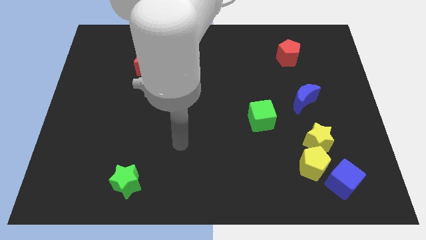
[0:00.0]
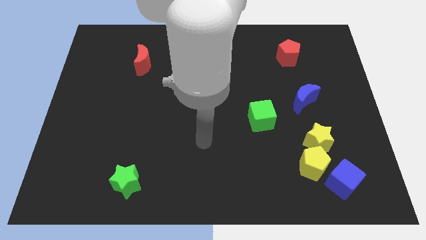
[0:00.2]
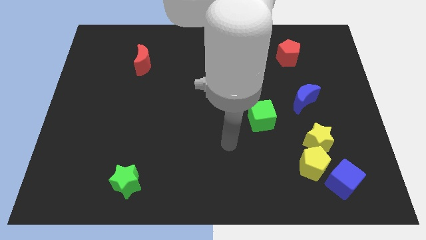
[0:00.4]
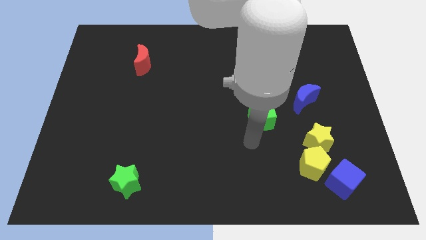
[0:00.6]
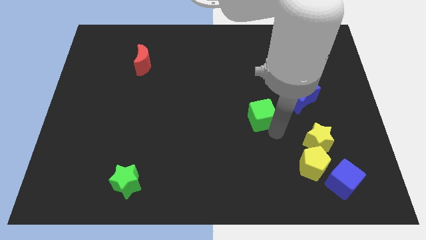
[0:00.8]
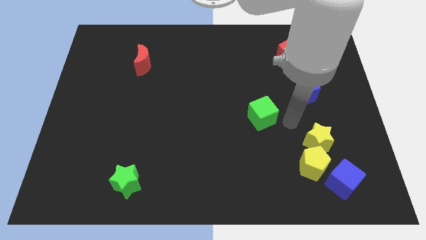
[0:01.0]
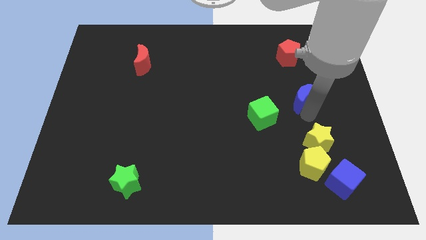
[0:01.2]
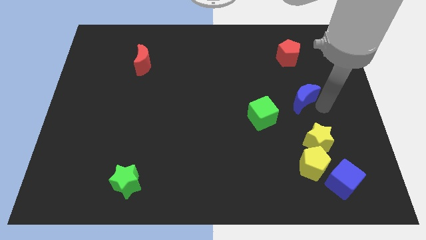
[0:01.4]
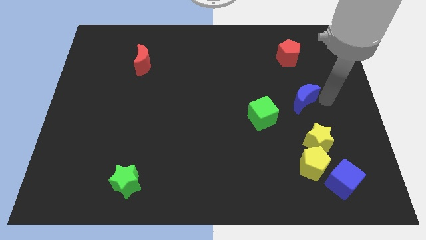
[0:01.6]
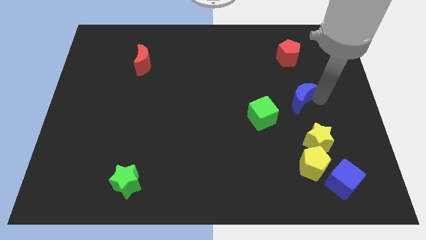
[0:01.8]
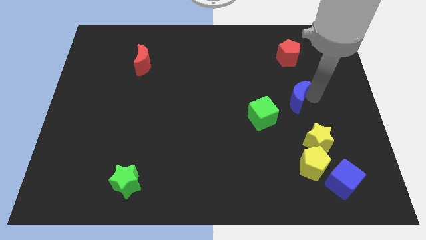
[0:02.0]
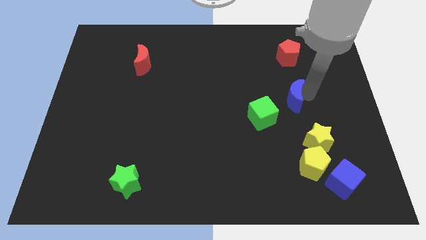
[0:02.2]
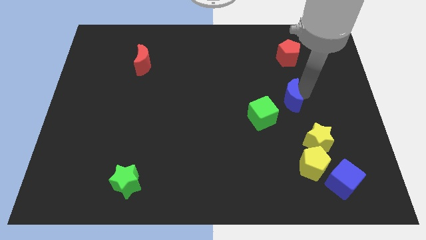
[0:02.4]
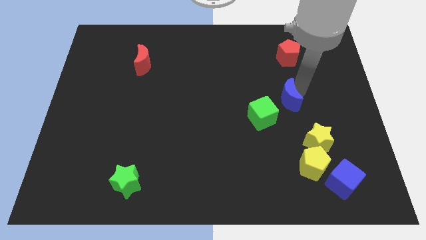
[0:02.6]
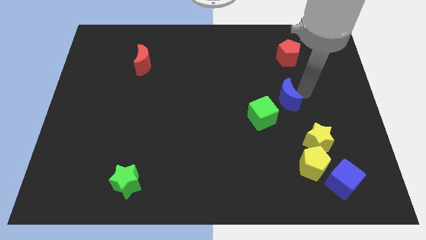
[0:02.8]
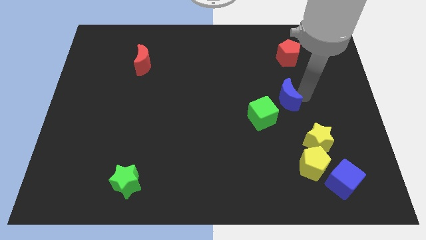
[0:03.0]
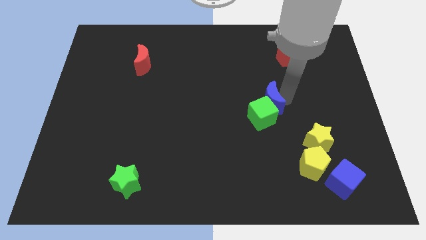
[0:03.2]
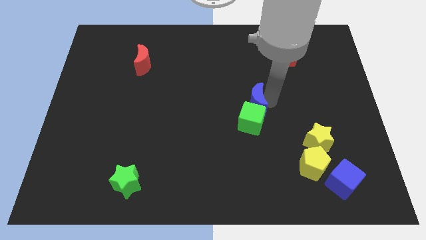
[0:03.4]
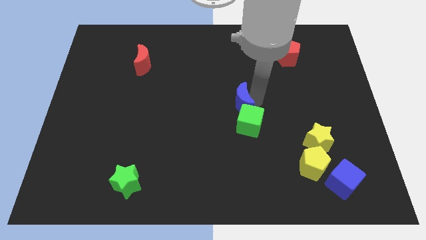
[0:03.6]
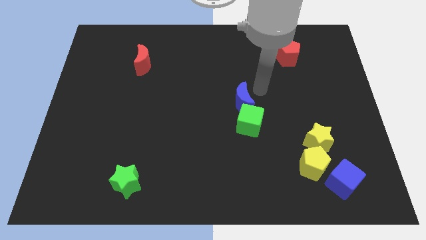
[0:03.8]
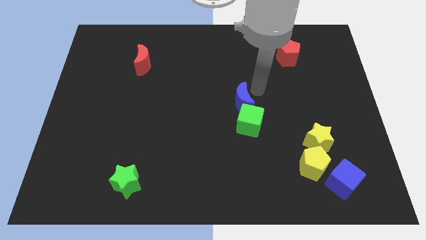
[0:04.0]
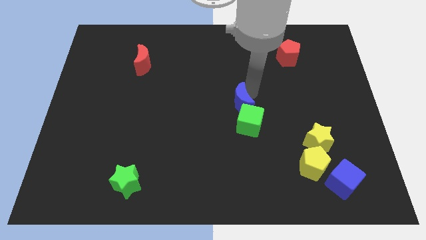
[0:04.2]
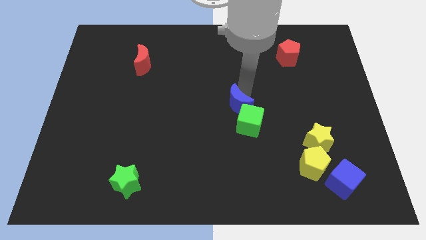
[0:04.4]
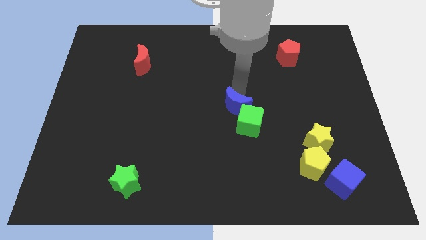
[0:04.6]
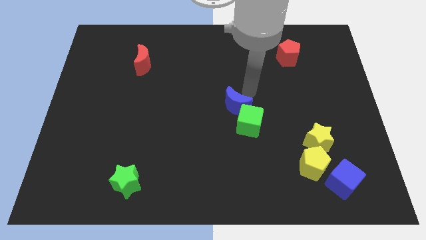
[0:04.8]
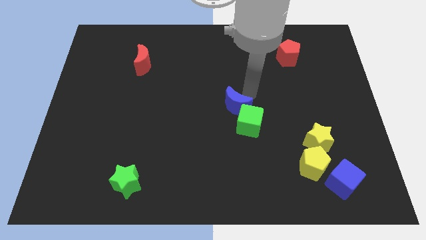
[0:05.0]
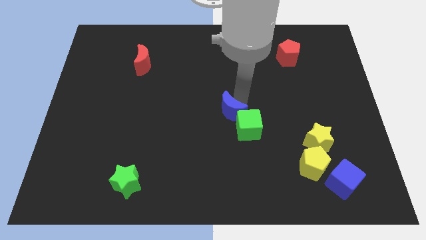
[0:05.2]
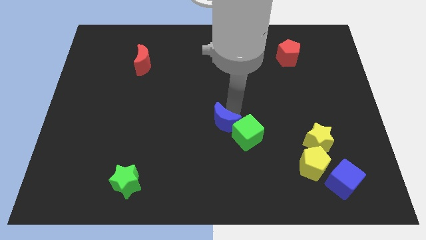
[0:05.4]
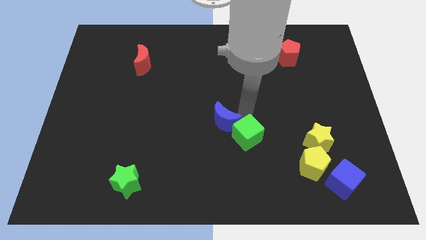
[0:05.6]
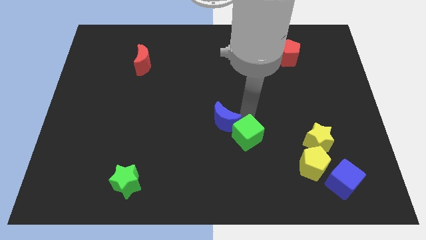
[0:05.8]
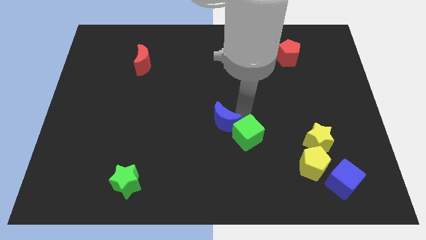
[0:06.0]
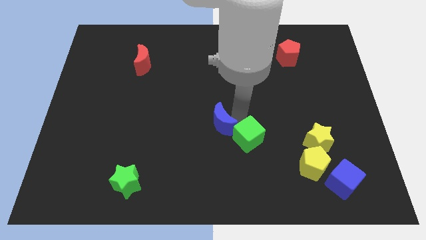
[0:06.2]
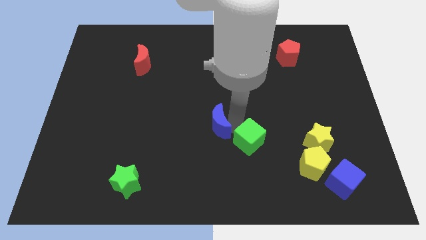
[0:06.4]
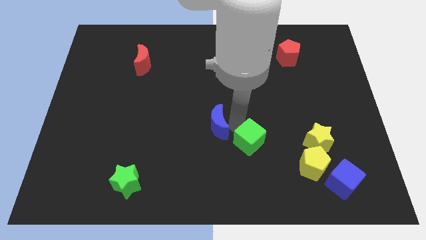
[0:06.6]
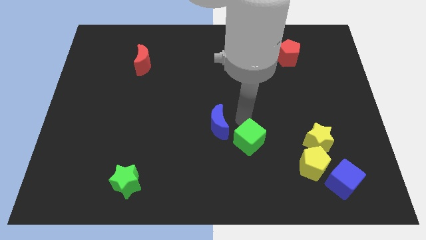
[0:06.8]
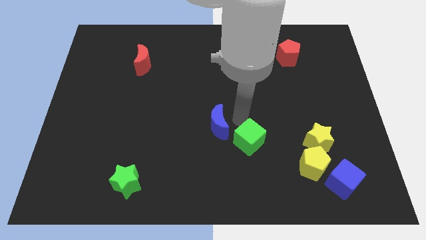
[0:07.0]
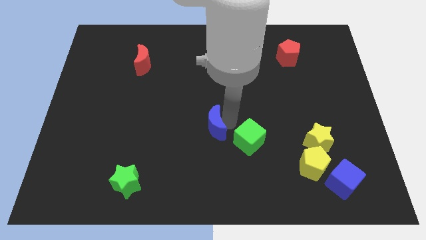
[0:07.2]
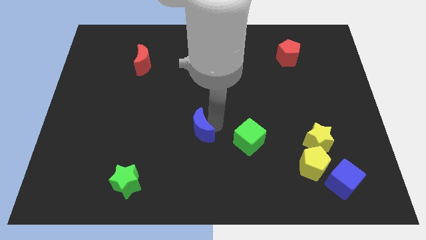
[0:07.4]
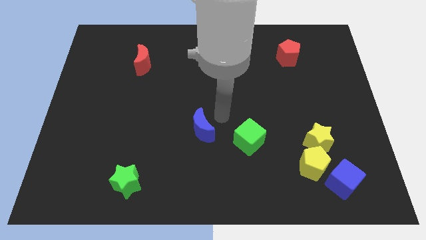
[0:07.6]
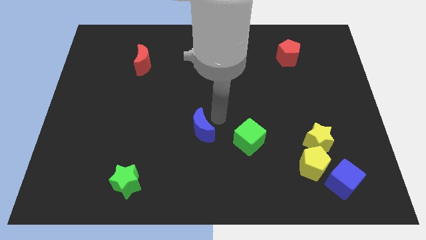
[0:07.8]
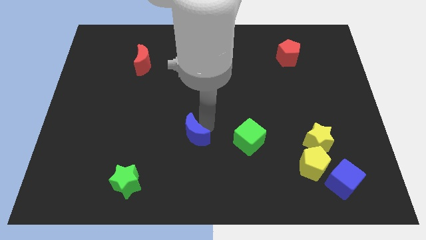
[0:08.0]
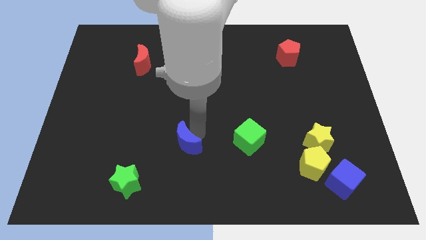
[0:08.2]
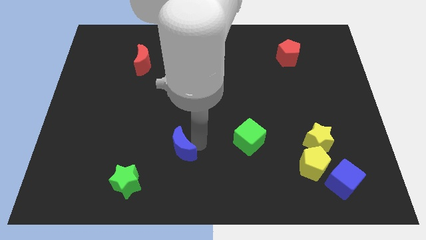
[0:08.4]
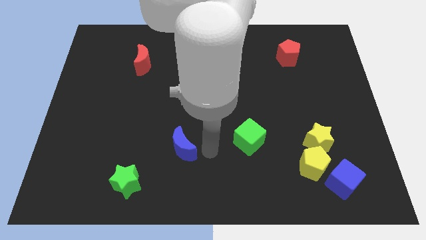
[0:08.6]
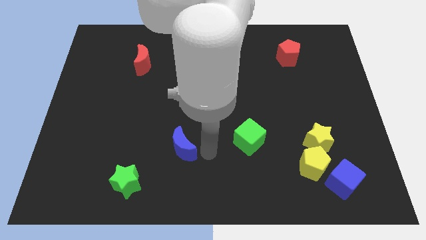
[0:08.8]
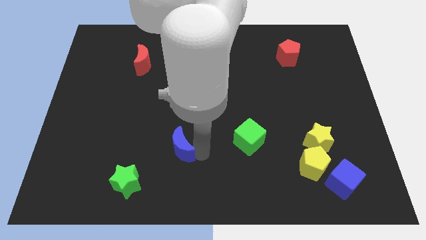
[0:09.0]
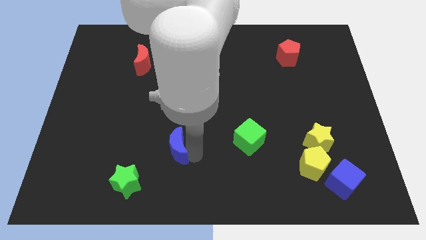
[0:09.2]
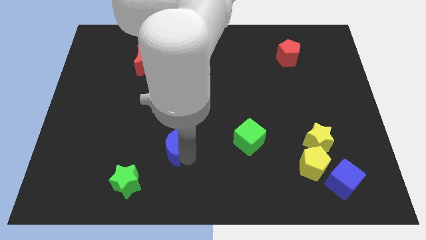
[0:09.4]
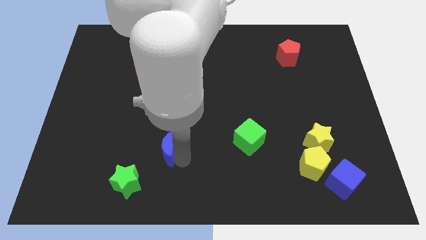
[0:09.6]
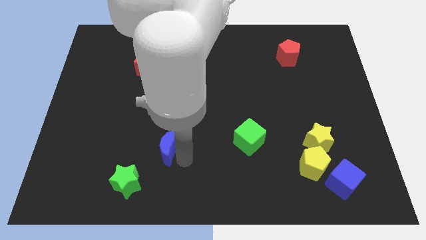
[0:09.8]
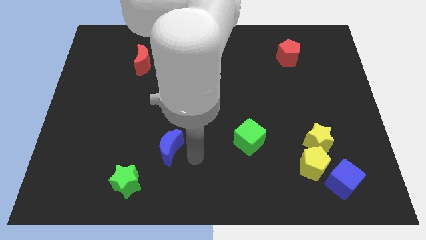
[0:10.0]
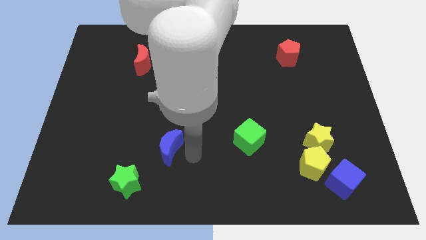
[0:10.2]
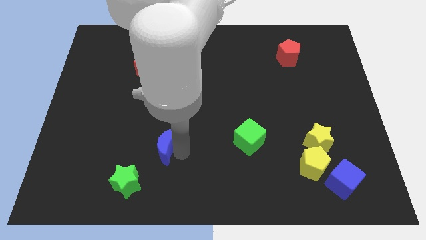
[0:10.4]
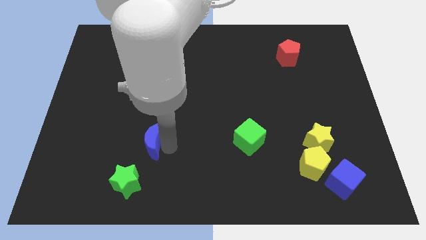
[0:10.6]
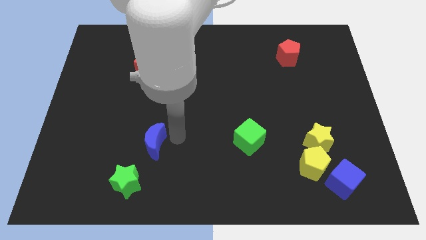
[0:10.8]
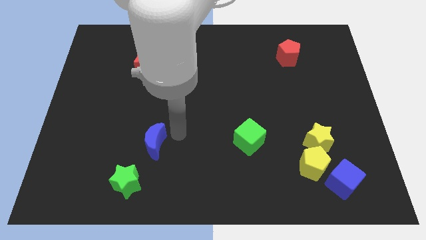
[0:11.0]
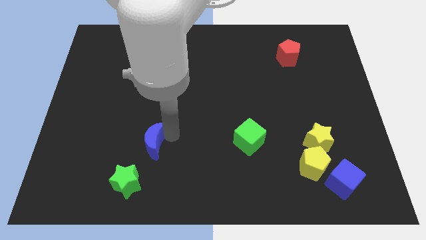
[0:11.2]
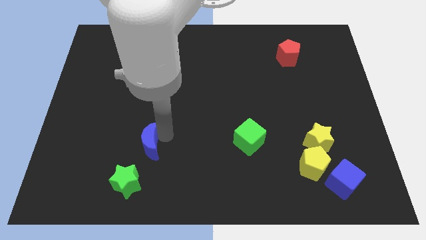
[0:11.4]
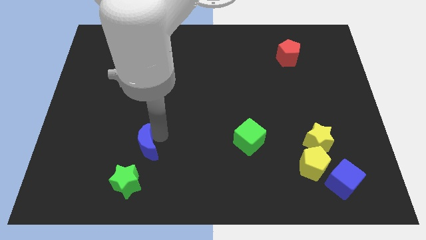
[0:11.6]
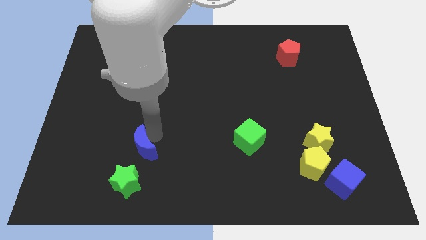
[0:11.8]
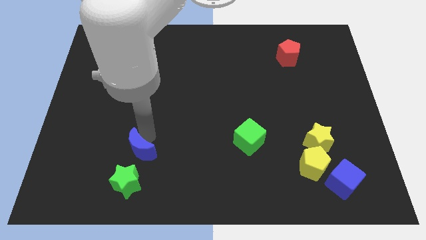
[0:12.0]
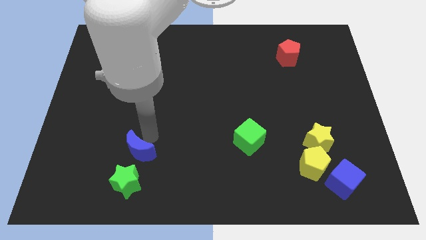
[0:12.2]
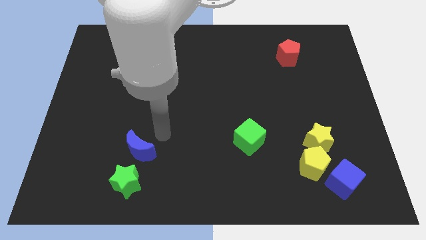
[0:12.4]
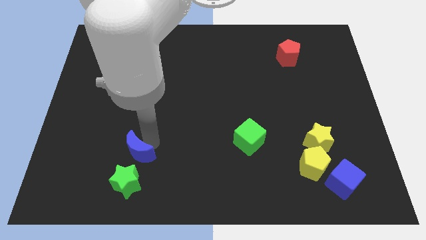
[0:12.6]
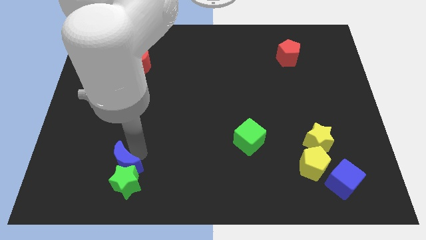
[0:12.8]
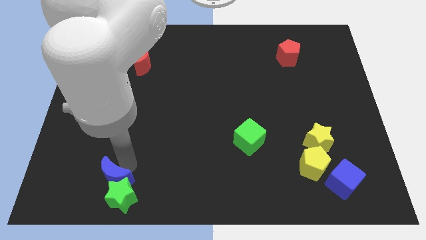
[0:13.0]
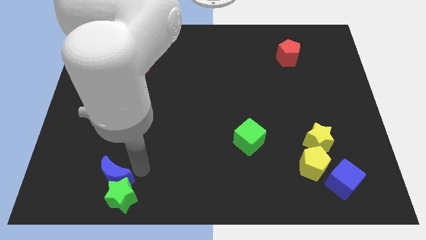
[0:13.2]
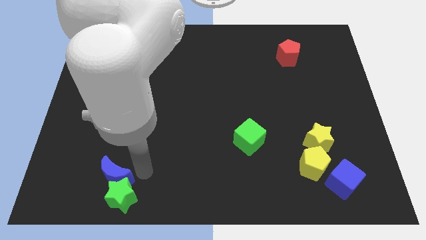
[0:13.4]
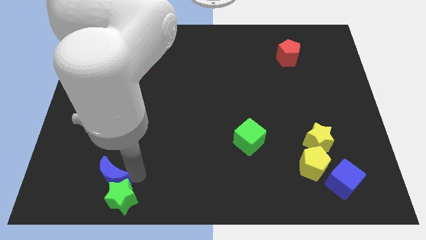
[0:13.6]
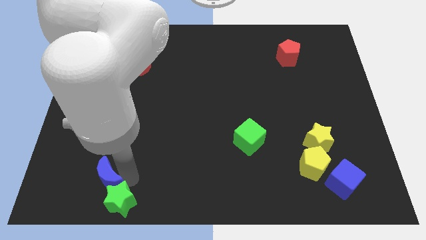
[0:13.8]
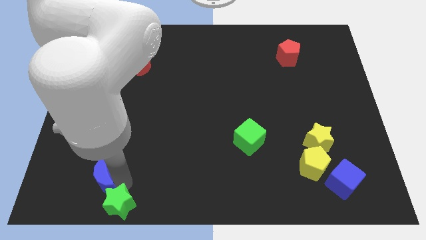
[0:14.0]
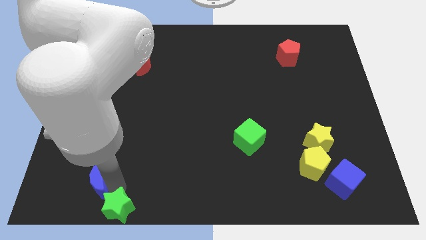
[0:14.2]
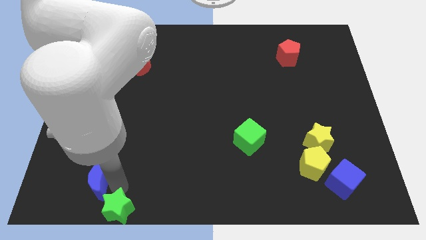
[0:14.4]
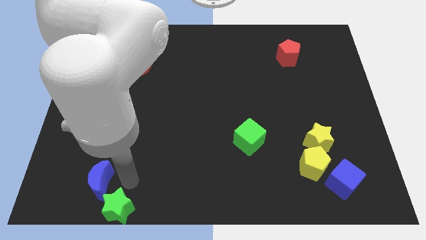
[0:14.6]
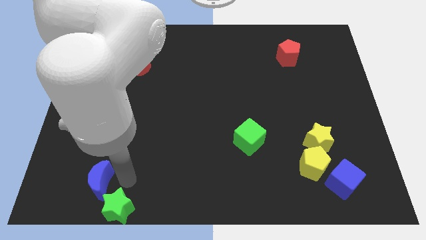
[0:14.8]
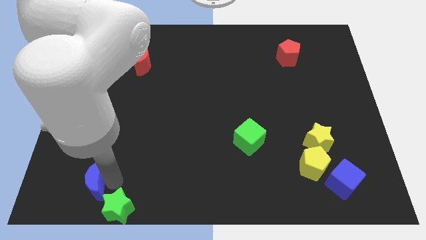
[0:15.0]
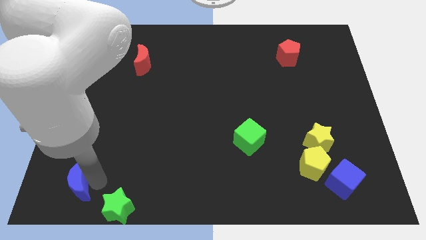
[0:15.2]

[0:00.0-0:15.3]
move the blue moon to the bottom left
